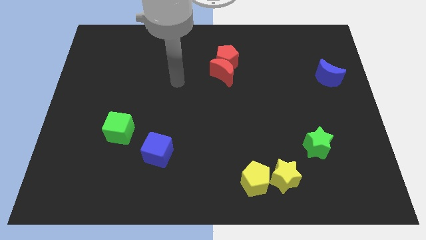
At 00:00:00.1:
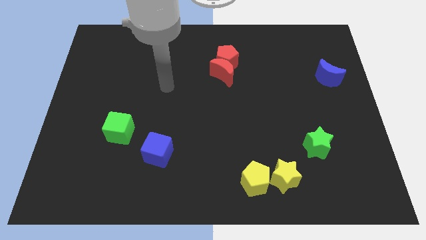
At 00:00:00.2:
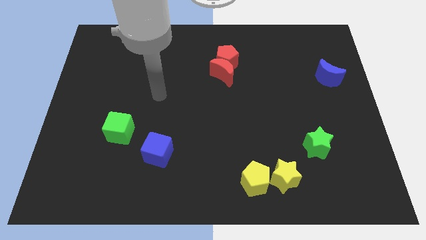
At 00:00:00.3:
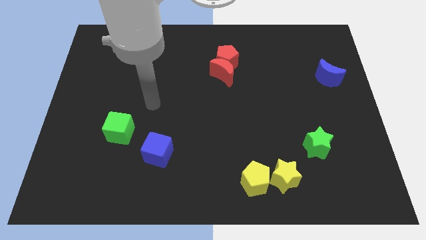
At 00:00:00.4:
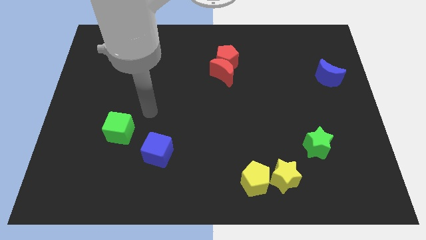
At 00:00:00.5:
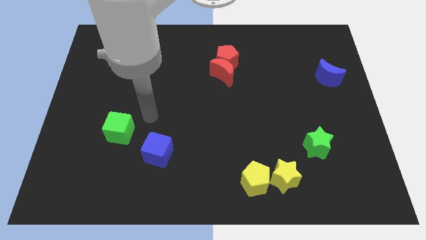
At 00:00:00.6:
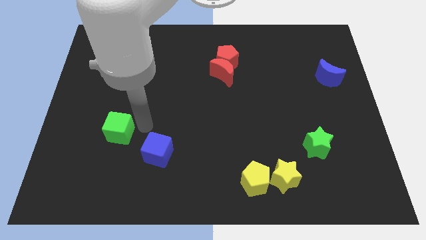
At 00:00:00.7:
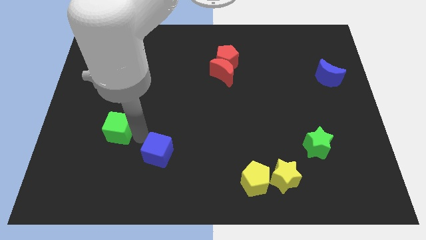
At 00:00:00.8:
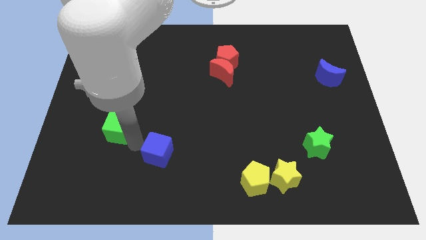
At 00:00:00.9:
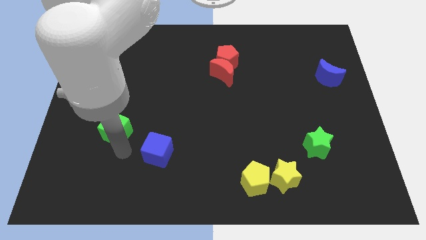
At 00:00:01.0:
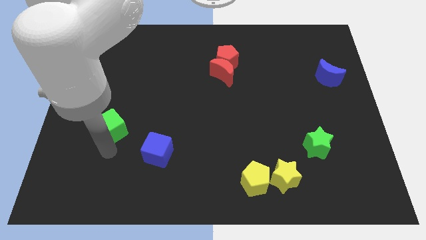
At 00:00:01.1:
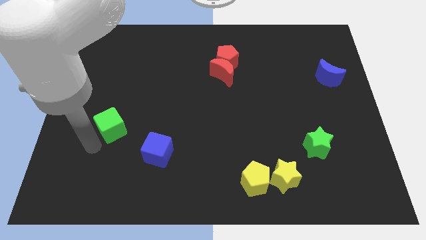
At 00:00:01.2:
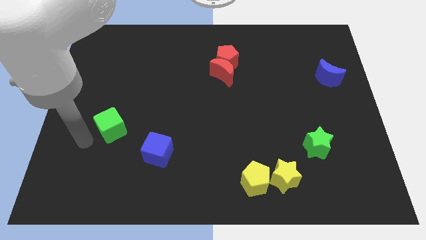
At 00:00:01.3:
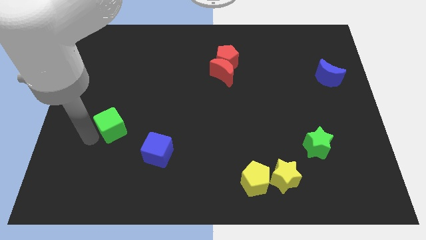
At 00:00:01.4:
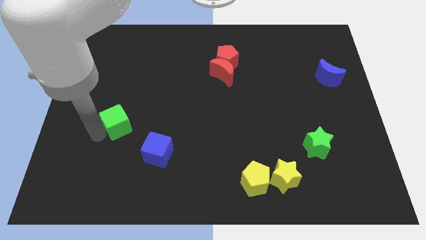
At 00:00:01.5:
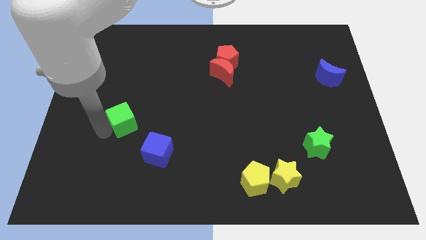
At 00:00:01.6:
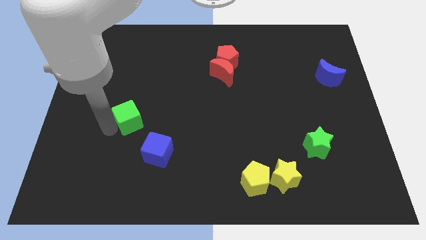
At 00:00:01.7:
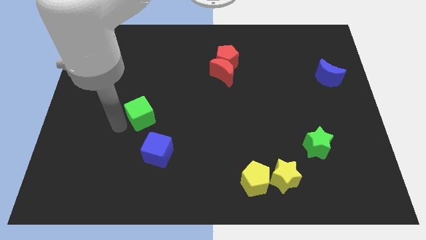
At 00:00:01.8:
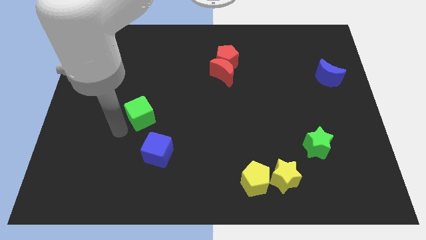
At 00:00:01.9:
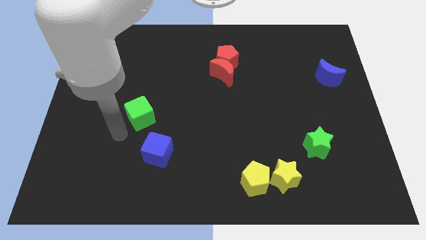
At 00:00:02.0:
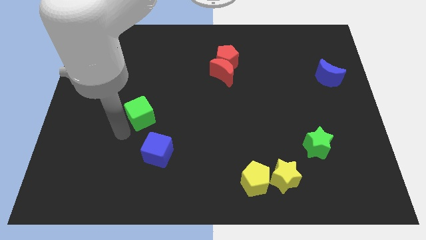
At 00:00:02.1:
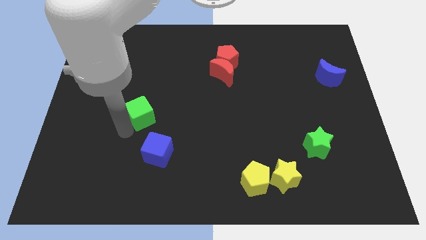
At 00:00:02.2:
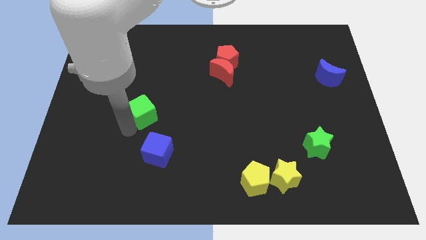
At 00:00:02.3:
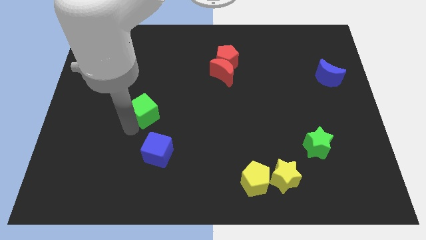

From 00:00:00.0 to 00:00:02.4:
push the green cube a little upwards and right diagonally

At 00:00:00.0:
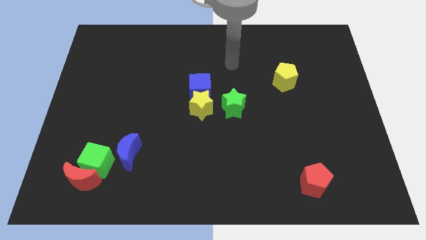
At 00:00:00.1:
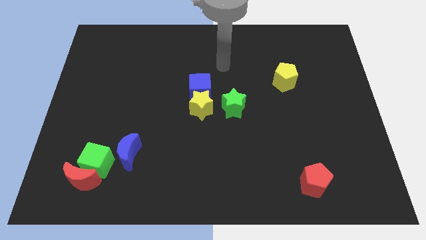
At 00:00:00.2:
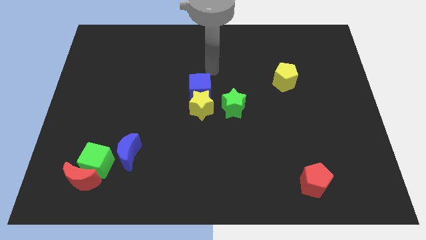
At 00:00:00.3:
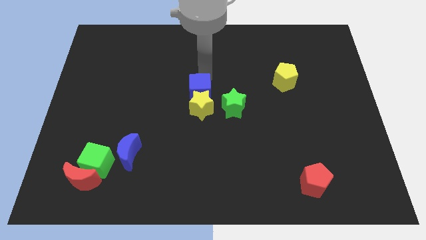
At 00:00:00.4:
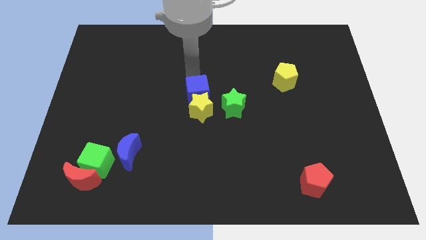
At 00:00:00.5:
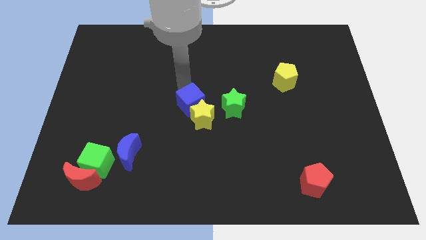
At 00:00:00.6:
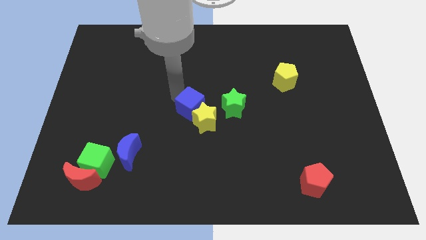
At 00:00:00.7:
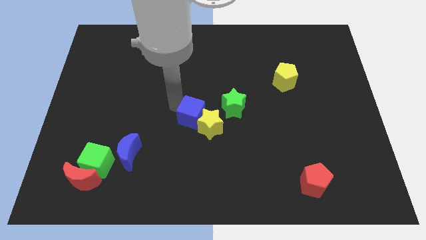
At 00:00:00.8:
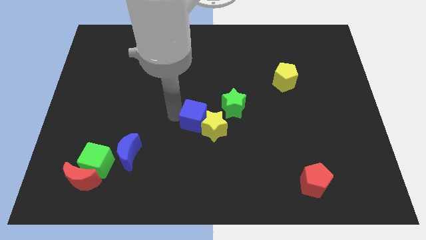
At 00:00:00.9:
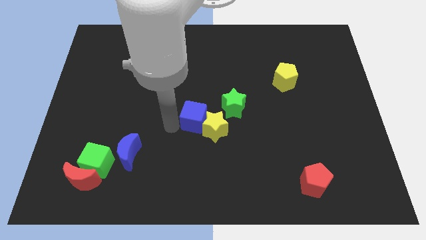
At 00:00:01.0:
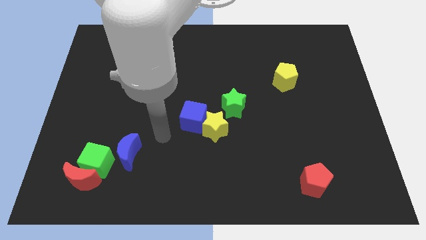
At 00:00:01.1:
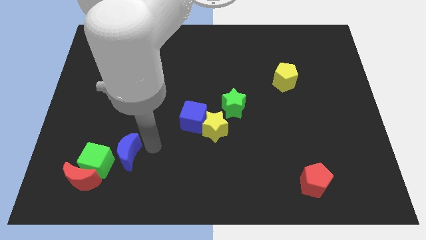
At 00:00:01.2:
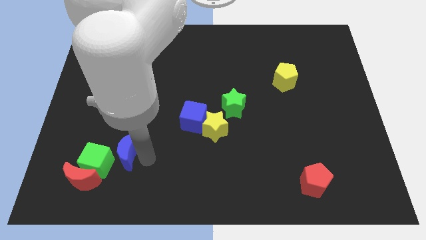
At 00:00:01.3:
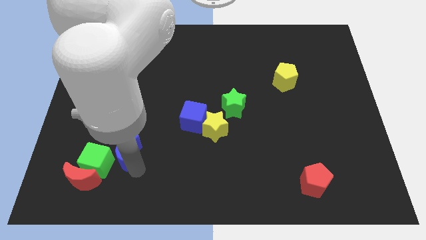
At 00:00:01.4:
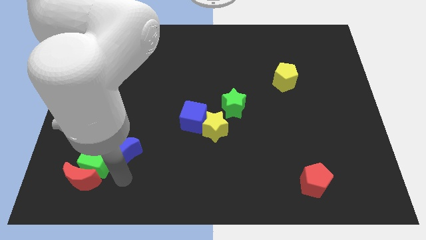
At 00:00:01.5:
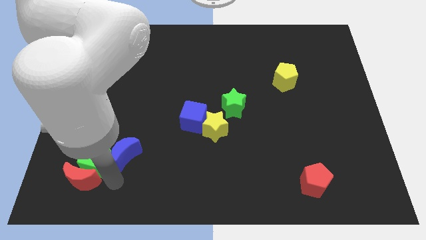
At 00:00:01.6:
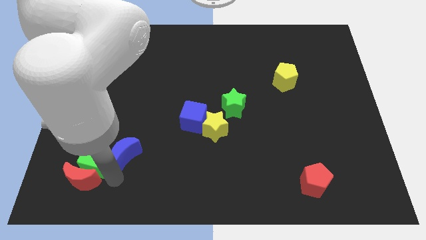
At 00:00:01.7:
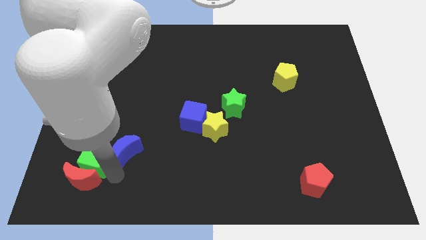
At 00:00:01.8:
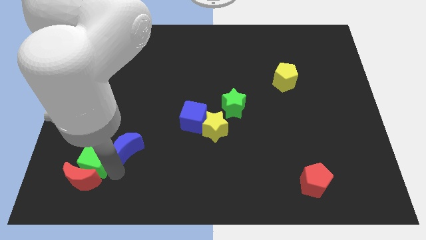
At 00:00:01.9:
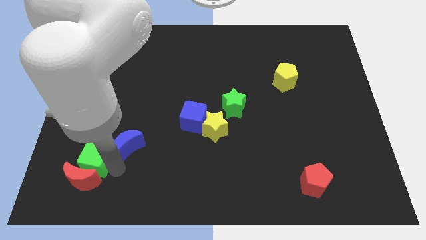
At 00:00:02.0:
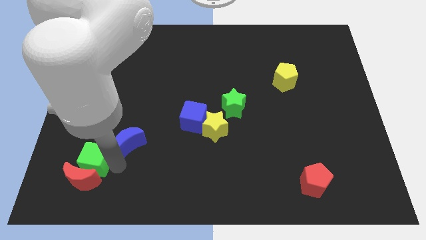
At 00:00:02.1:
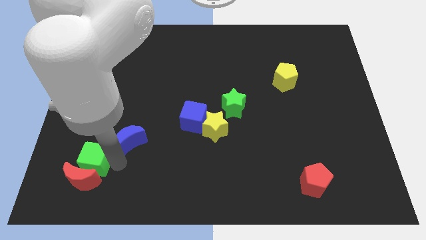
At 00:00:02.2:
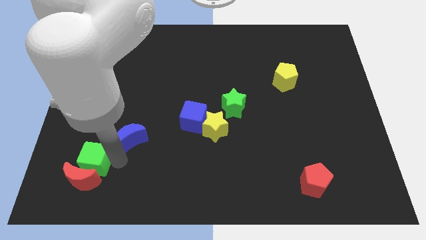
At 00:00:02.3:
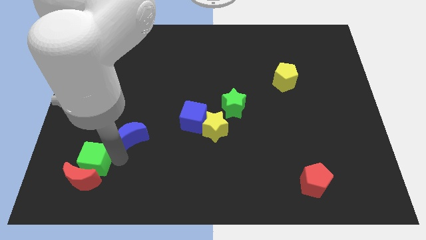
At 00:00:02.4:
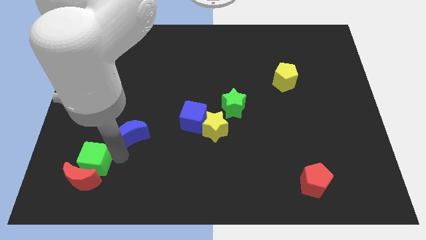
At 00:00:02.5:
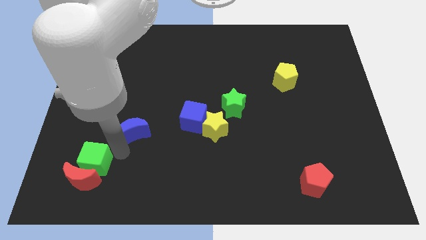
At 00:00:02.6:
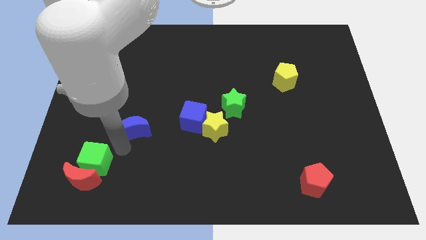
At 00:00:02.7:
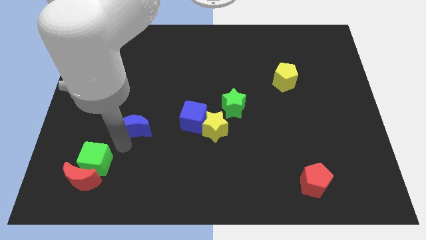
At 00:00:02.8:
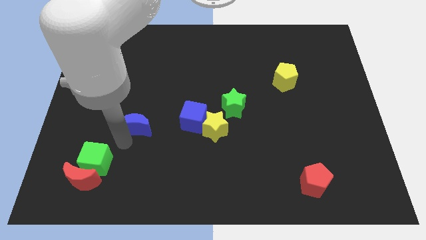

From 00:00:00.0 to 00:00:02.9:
slightly push the blue moon upwards

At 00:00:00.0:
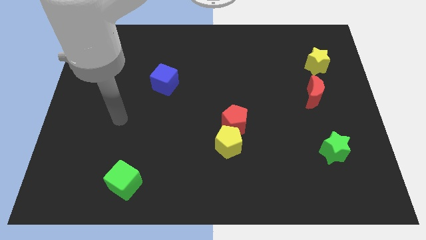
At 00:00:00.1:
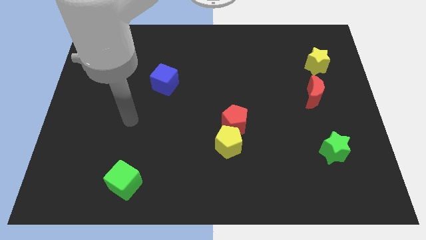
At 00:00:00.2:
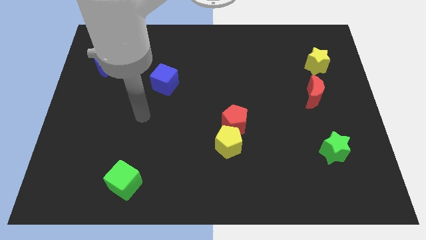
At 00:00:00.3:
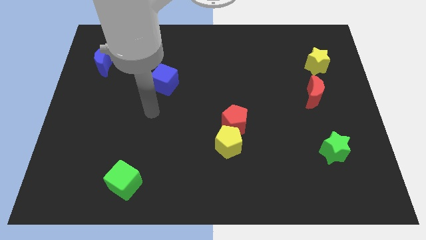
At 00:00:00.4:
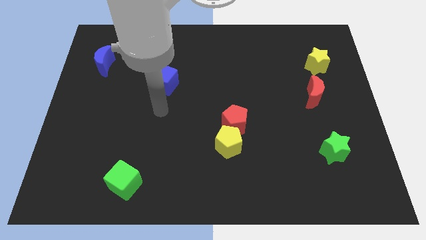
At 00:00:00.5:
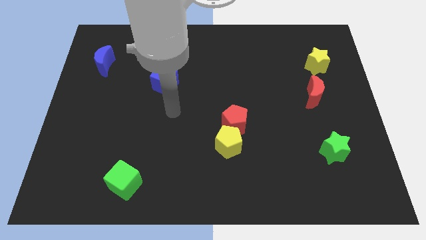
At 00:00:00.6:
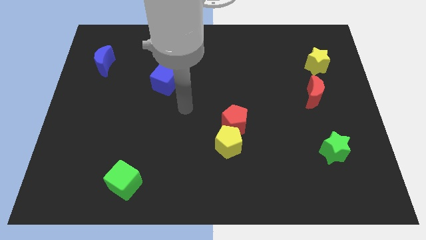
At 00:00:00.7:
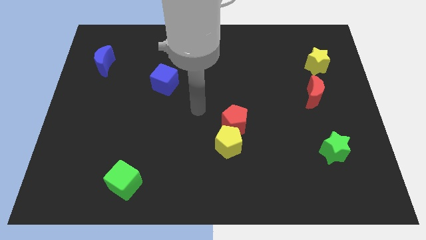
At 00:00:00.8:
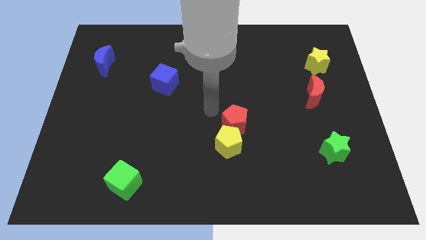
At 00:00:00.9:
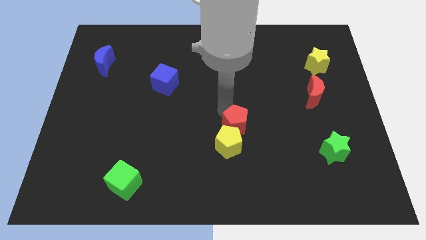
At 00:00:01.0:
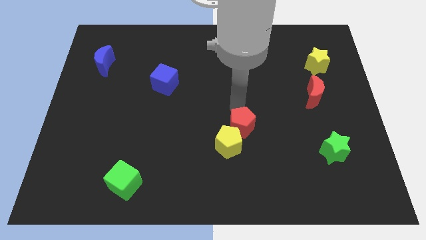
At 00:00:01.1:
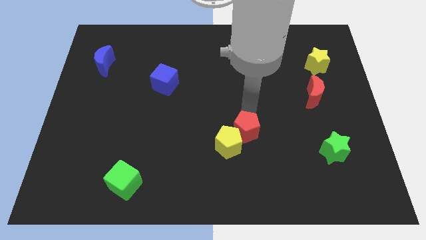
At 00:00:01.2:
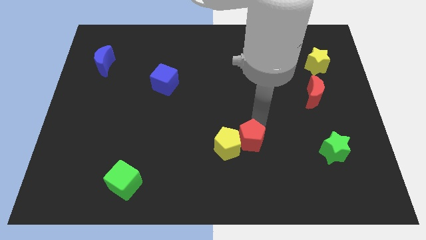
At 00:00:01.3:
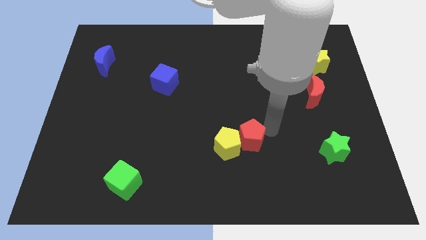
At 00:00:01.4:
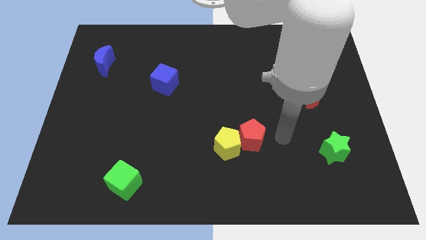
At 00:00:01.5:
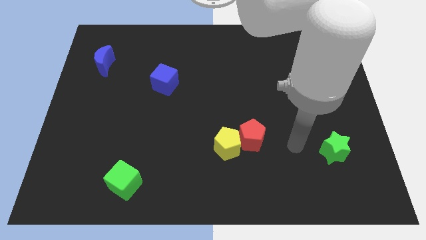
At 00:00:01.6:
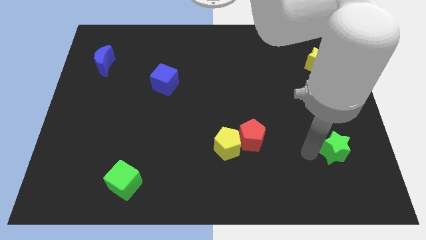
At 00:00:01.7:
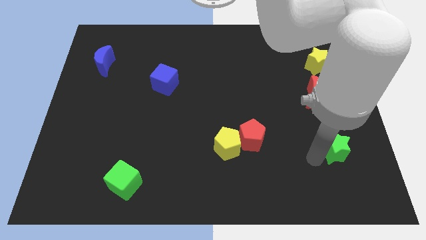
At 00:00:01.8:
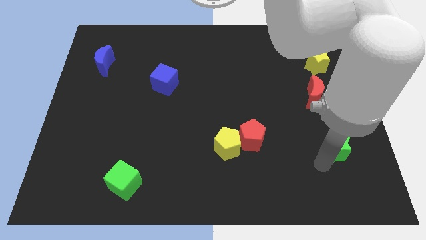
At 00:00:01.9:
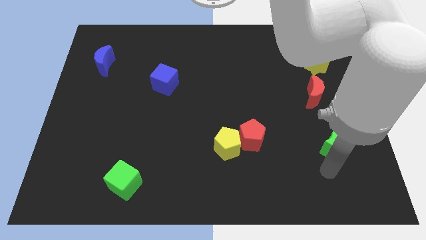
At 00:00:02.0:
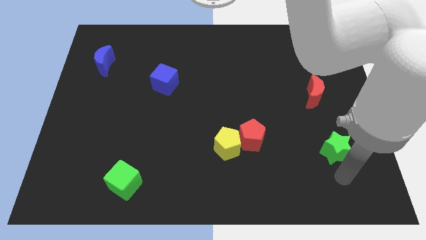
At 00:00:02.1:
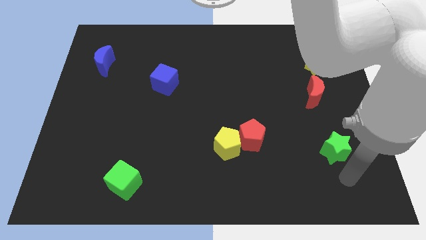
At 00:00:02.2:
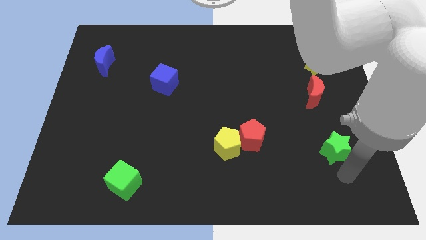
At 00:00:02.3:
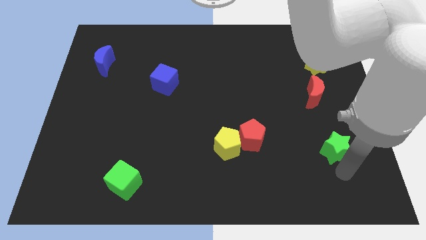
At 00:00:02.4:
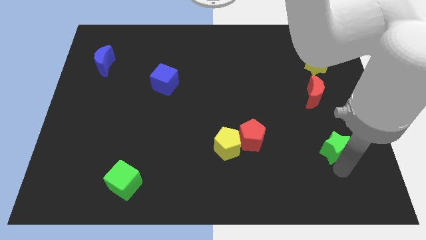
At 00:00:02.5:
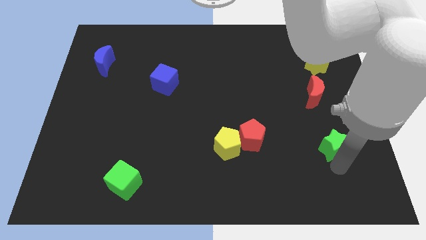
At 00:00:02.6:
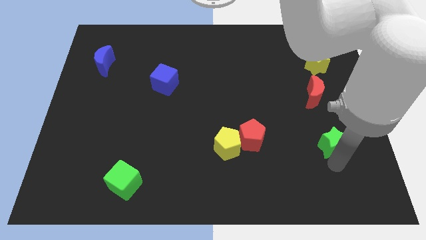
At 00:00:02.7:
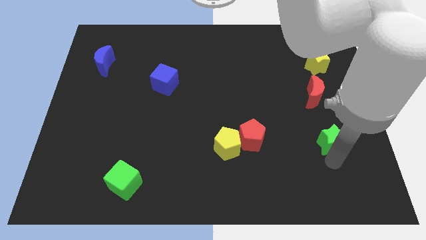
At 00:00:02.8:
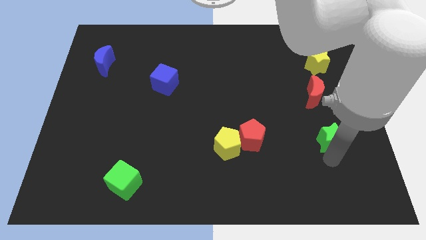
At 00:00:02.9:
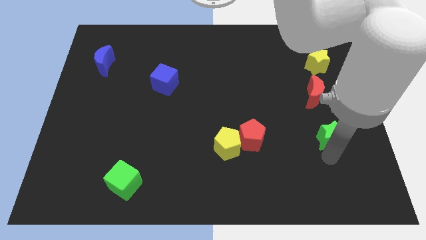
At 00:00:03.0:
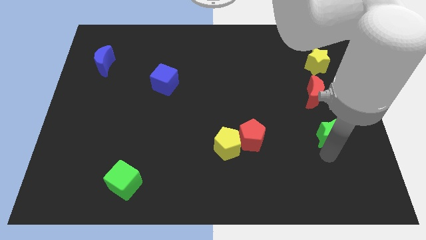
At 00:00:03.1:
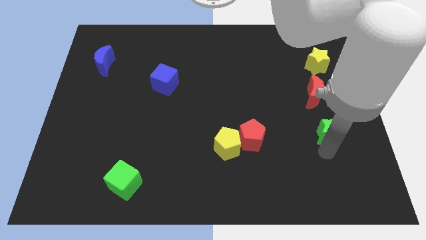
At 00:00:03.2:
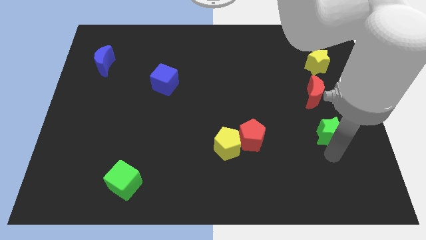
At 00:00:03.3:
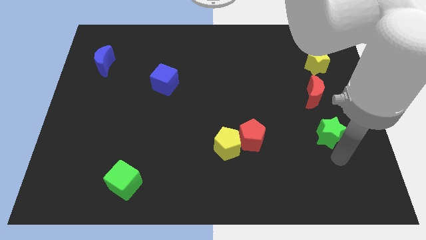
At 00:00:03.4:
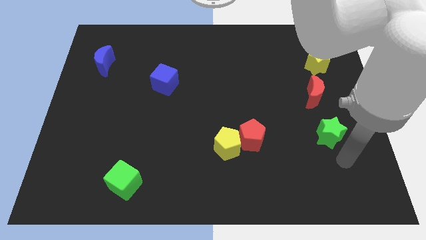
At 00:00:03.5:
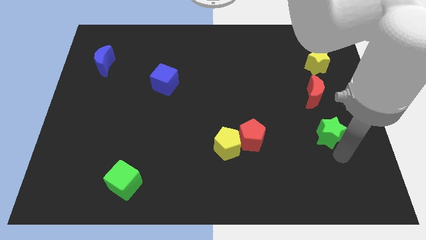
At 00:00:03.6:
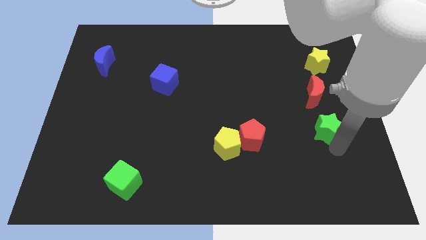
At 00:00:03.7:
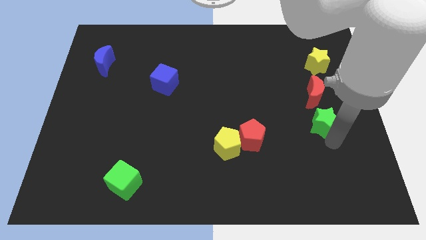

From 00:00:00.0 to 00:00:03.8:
move the green star a bit upwards
